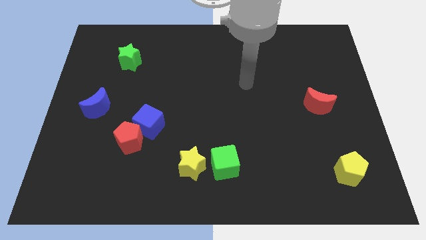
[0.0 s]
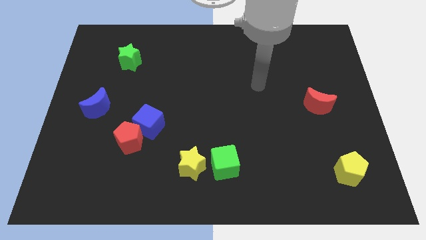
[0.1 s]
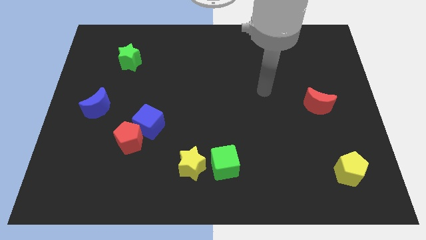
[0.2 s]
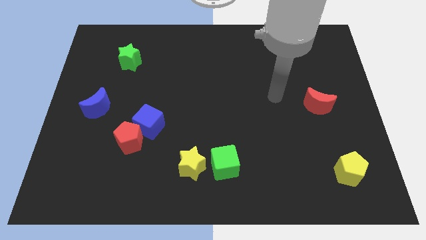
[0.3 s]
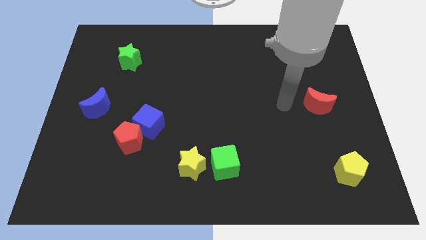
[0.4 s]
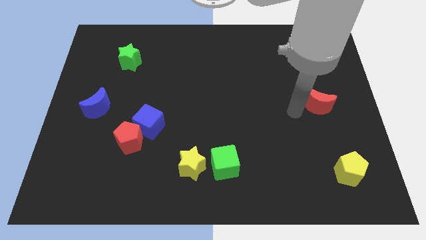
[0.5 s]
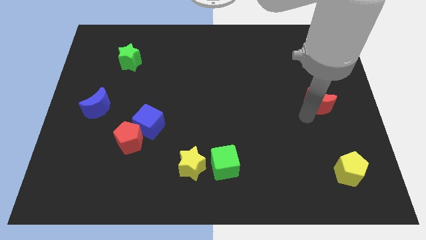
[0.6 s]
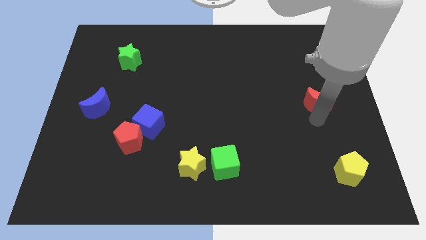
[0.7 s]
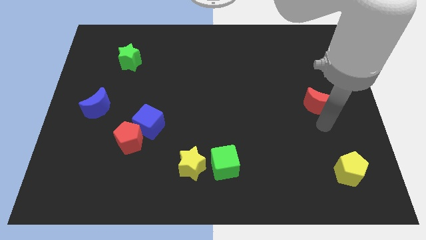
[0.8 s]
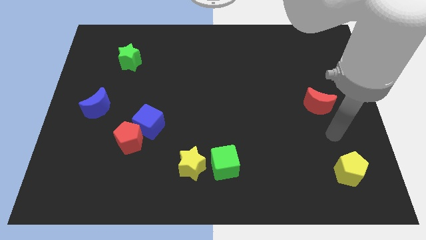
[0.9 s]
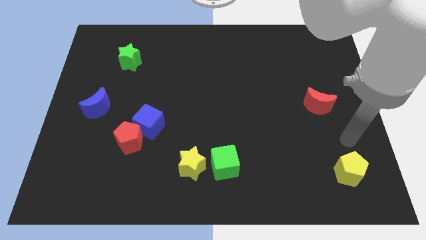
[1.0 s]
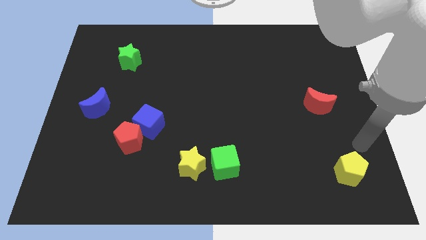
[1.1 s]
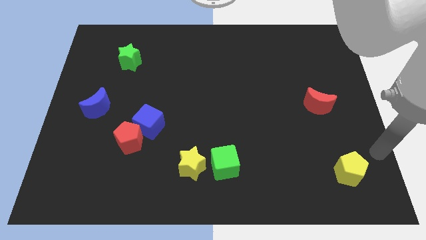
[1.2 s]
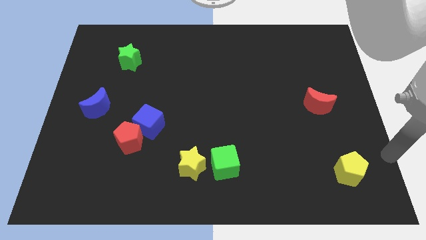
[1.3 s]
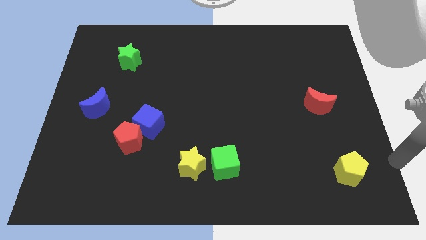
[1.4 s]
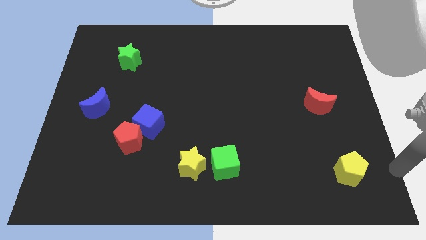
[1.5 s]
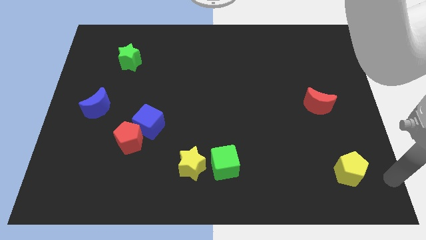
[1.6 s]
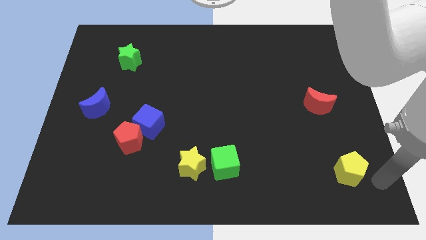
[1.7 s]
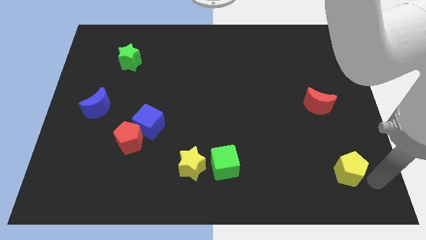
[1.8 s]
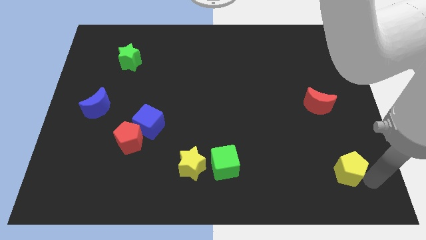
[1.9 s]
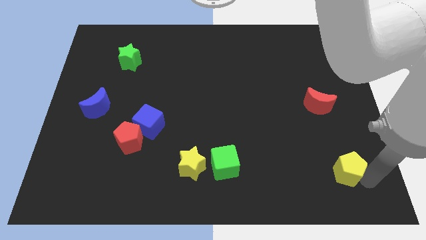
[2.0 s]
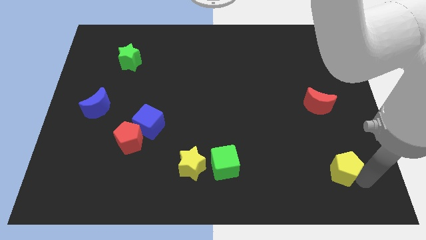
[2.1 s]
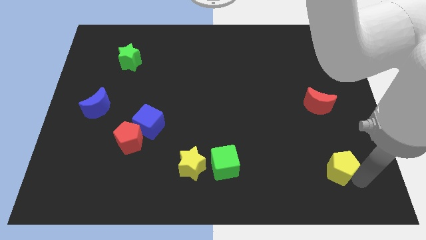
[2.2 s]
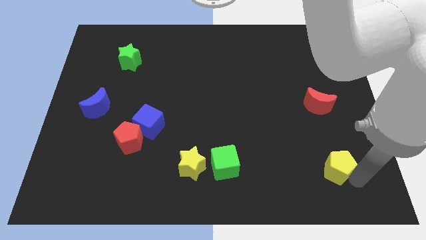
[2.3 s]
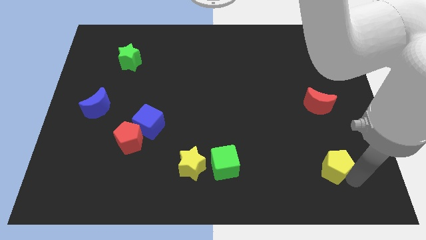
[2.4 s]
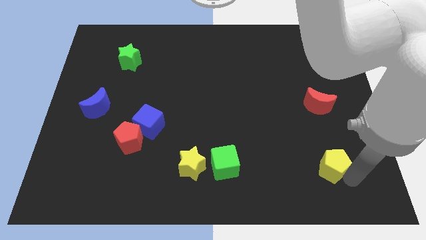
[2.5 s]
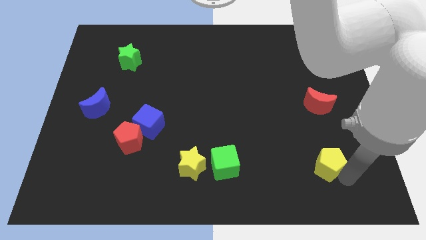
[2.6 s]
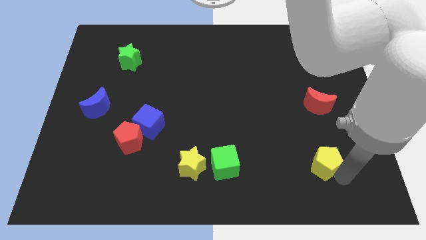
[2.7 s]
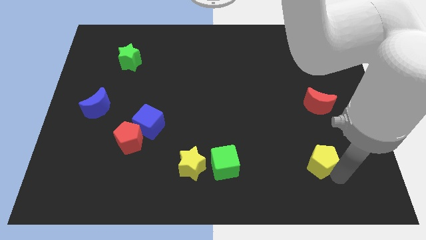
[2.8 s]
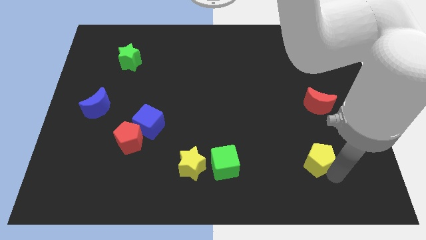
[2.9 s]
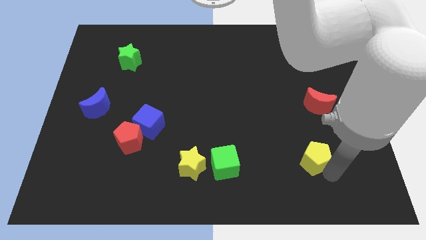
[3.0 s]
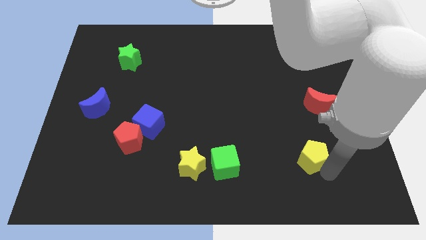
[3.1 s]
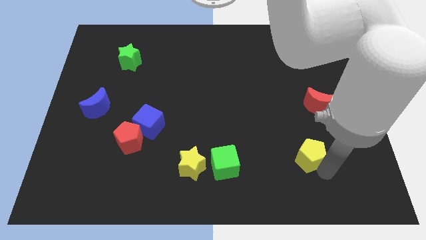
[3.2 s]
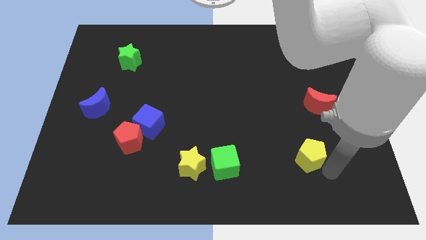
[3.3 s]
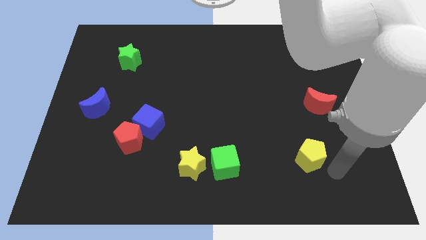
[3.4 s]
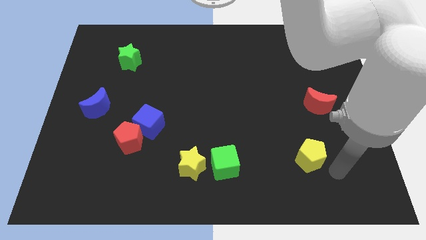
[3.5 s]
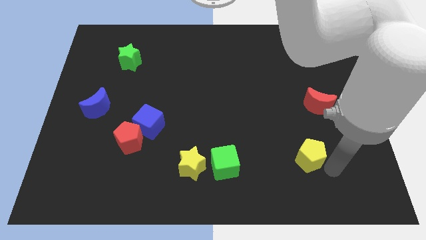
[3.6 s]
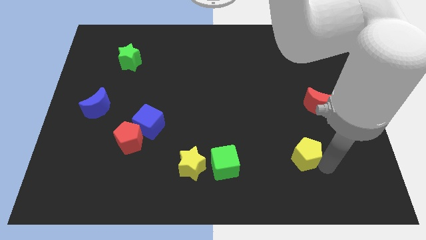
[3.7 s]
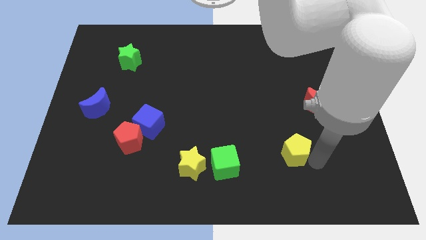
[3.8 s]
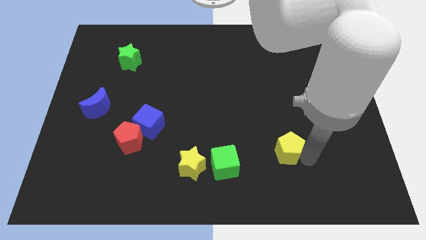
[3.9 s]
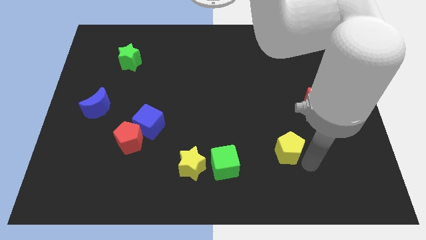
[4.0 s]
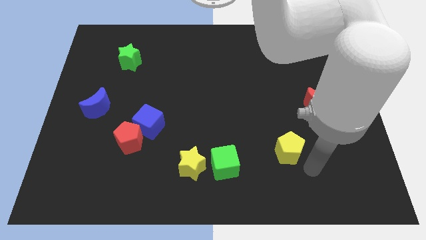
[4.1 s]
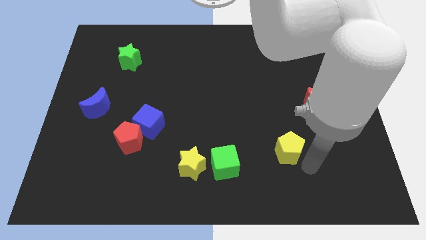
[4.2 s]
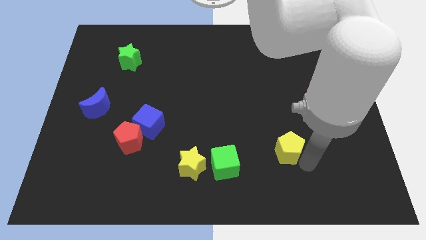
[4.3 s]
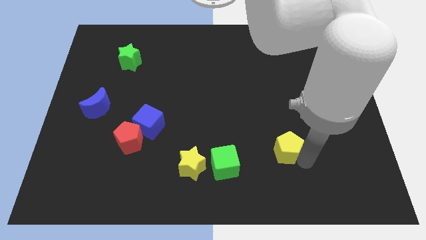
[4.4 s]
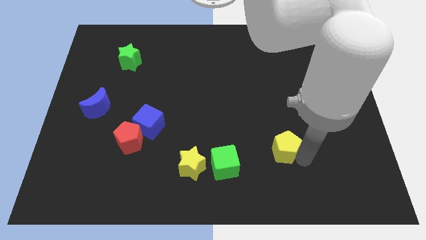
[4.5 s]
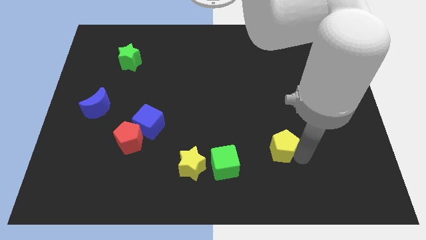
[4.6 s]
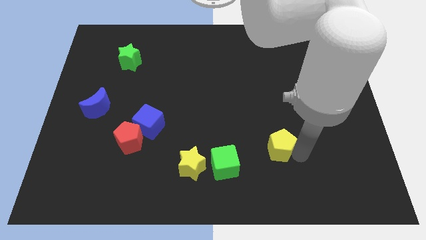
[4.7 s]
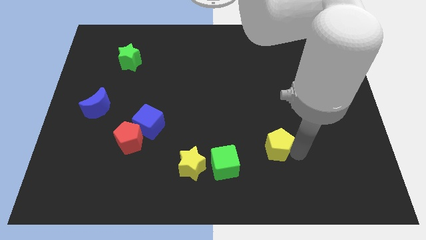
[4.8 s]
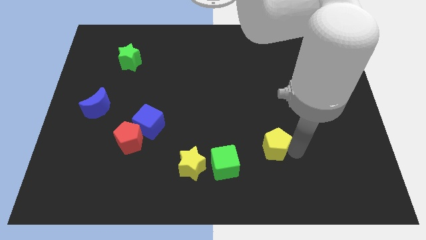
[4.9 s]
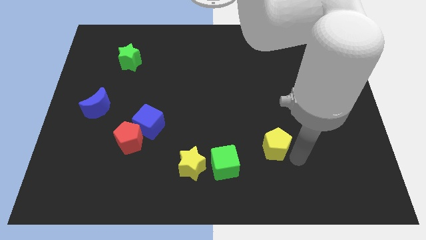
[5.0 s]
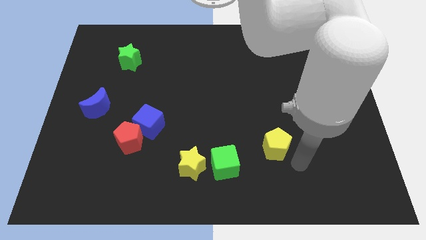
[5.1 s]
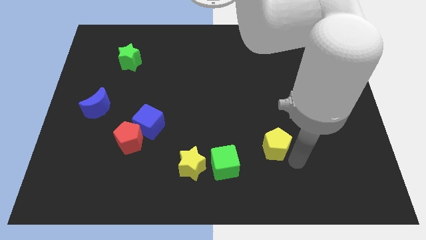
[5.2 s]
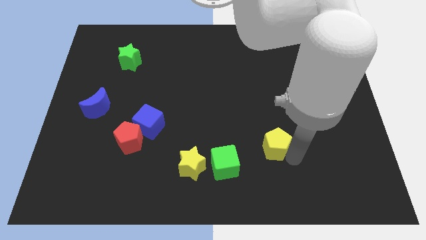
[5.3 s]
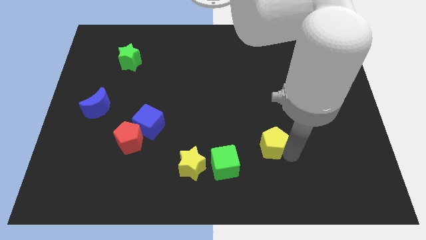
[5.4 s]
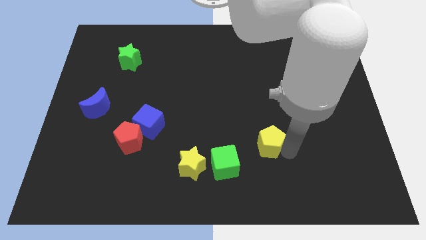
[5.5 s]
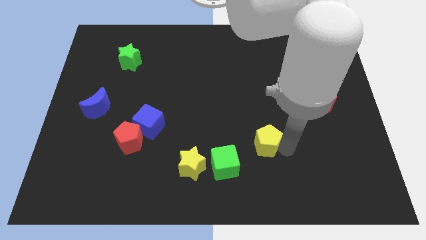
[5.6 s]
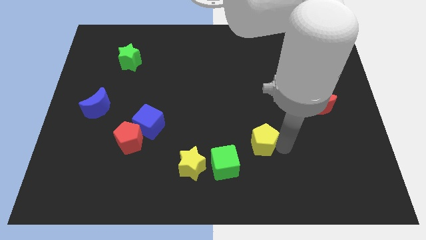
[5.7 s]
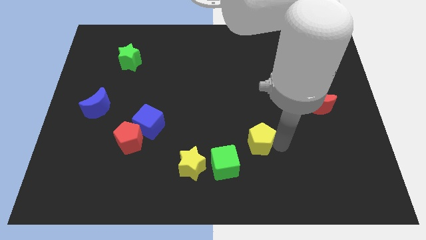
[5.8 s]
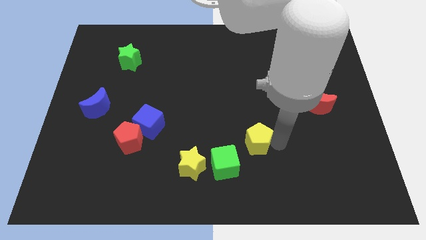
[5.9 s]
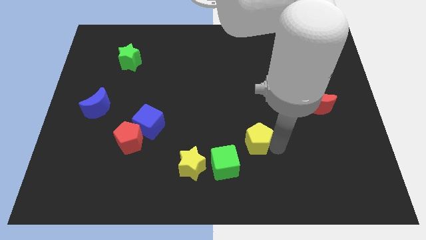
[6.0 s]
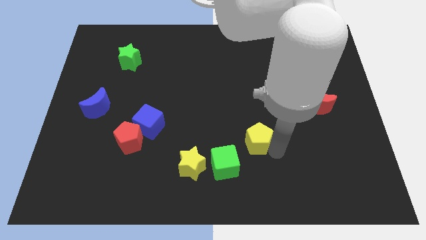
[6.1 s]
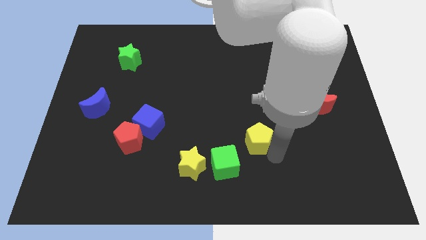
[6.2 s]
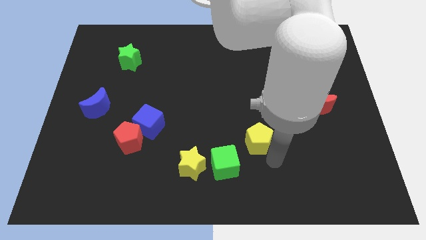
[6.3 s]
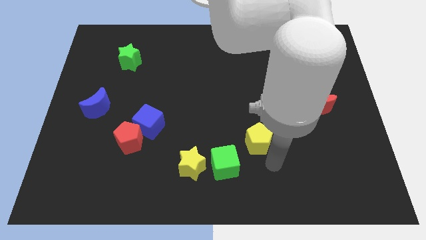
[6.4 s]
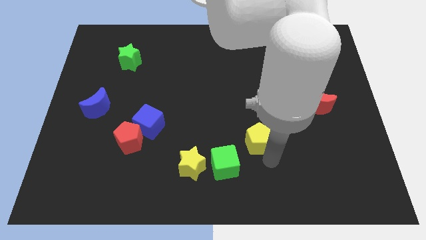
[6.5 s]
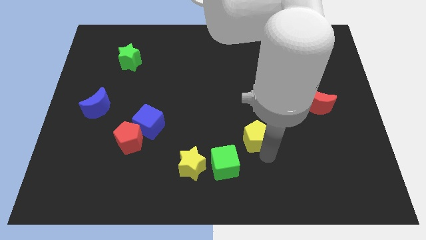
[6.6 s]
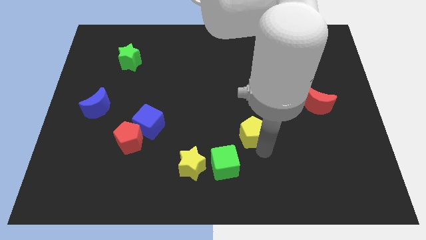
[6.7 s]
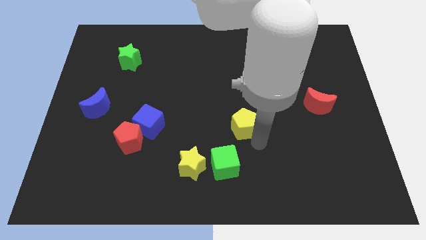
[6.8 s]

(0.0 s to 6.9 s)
push the yellow pentagon to the center of the board

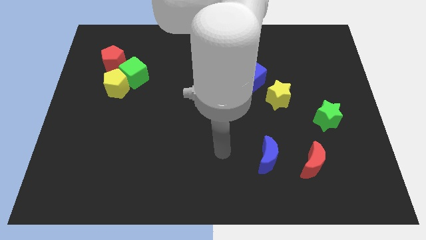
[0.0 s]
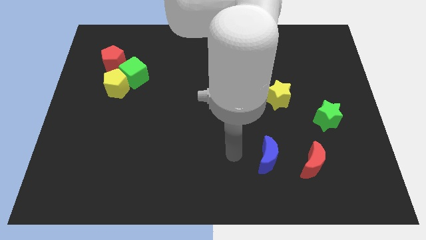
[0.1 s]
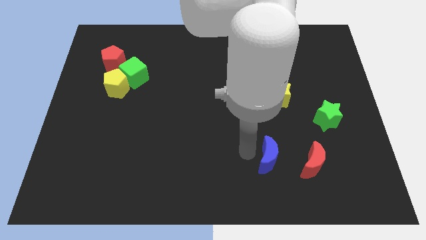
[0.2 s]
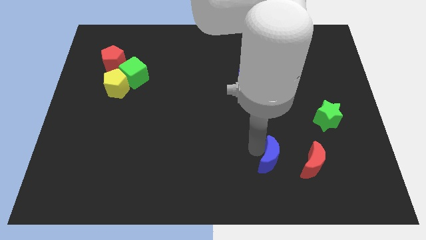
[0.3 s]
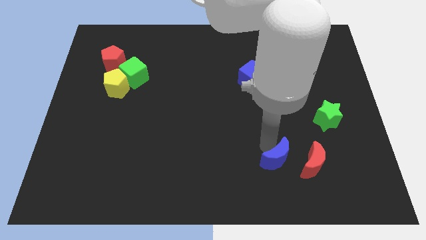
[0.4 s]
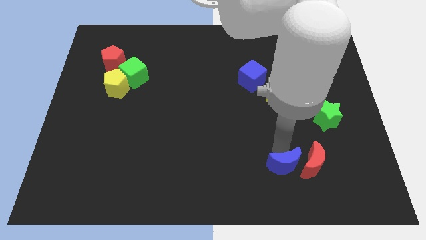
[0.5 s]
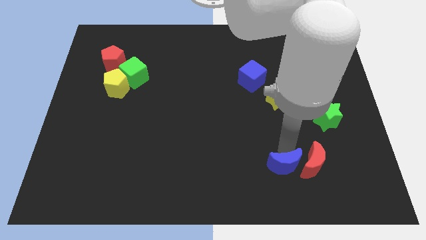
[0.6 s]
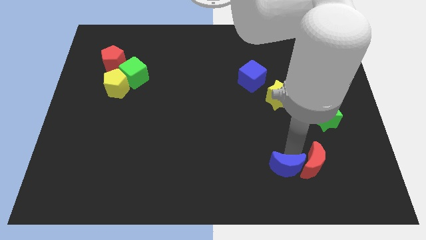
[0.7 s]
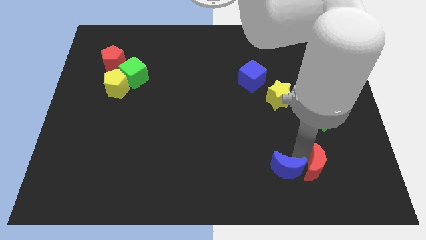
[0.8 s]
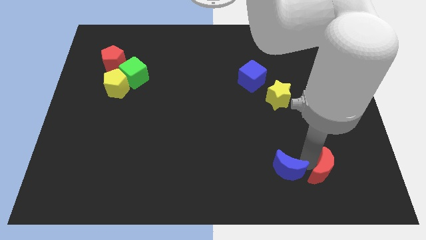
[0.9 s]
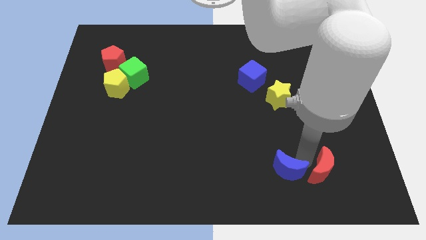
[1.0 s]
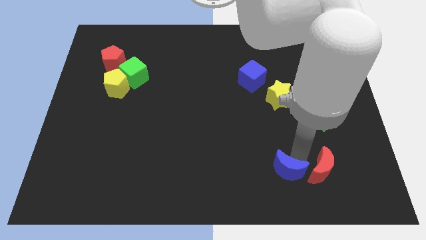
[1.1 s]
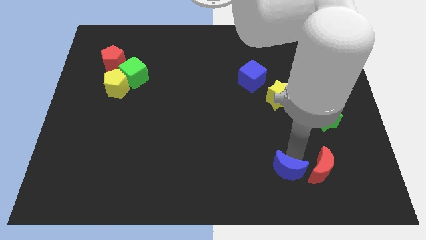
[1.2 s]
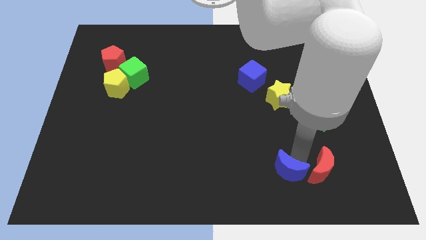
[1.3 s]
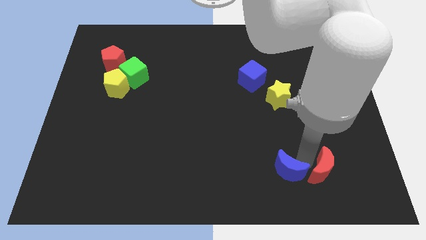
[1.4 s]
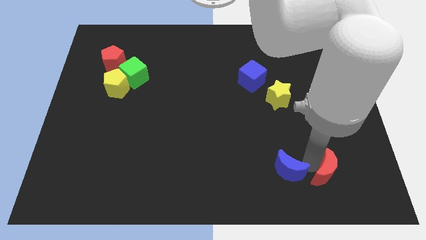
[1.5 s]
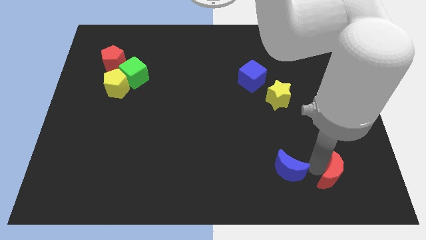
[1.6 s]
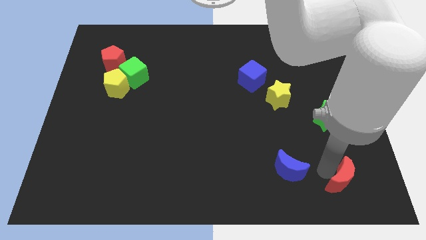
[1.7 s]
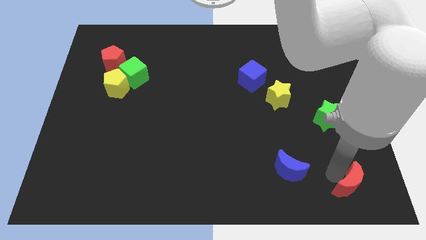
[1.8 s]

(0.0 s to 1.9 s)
put the red moon to the lower right corner
